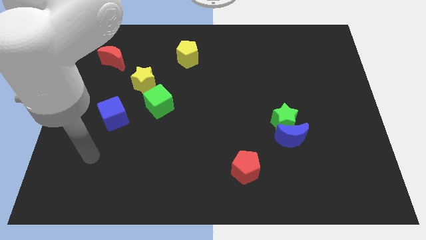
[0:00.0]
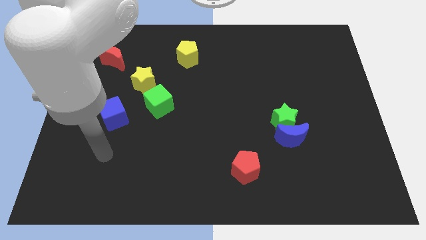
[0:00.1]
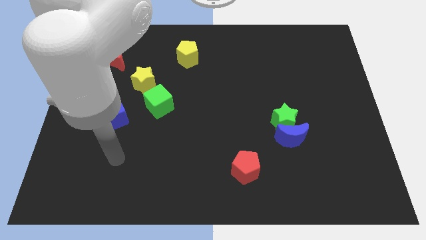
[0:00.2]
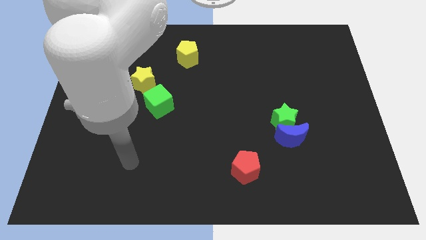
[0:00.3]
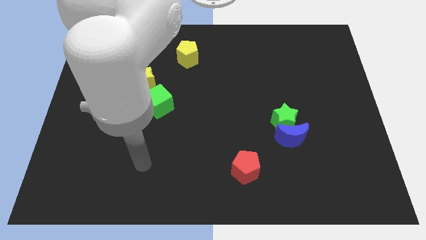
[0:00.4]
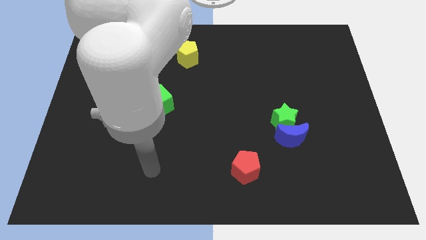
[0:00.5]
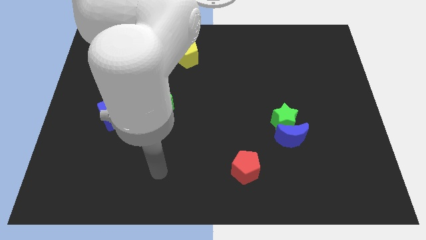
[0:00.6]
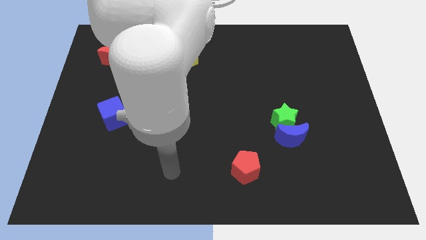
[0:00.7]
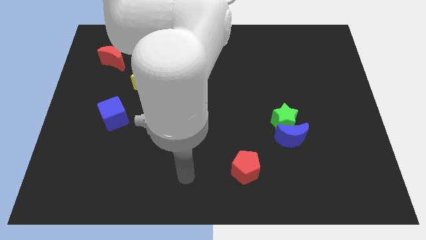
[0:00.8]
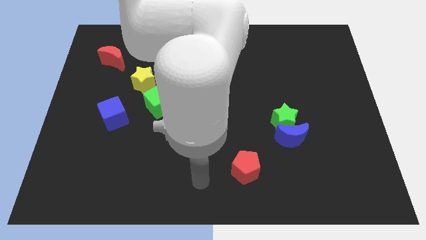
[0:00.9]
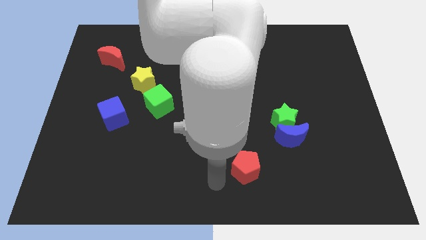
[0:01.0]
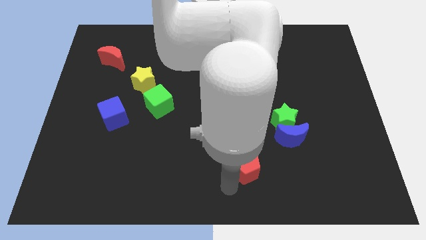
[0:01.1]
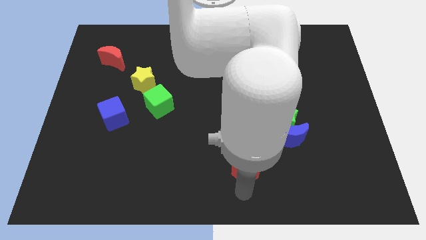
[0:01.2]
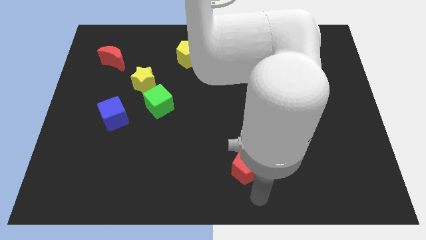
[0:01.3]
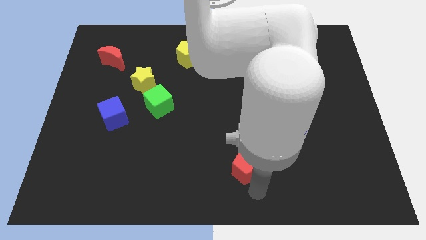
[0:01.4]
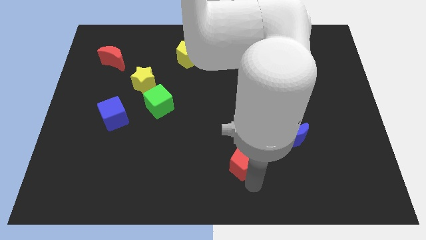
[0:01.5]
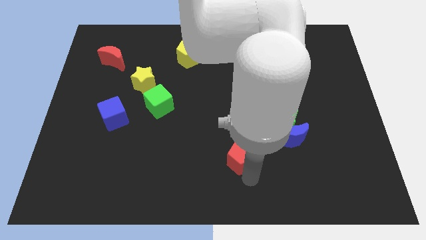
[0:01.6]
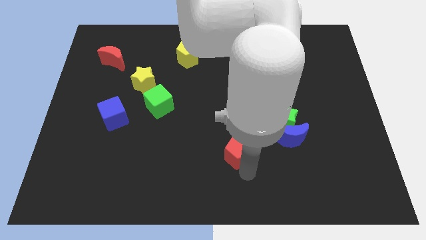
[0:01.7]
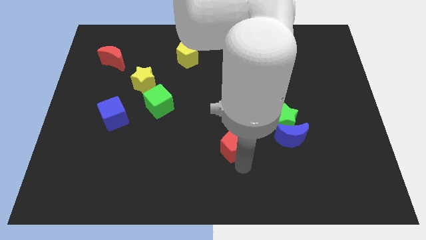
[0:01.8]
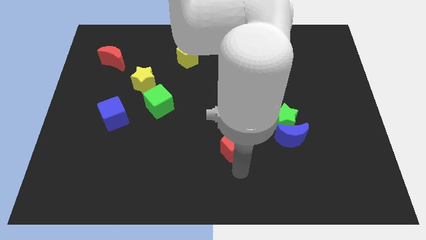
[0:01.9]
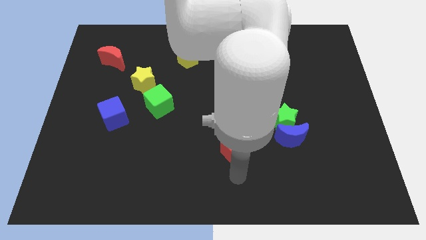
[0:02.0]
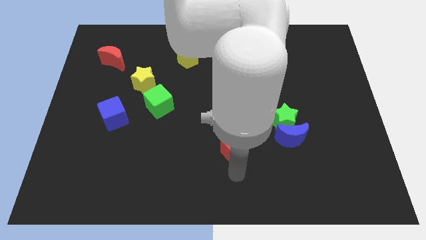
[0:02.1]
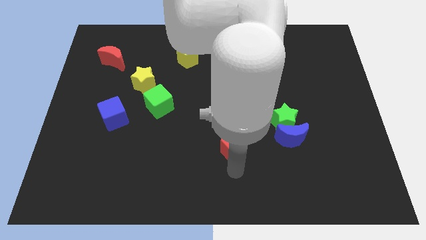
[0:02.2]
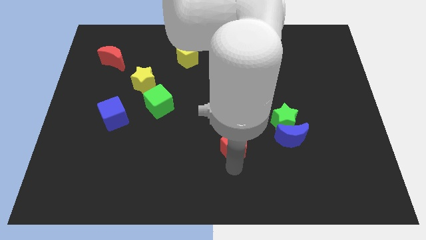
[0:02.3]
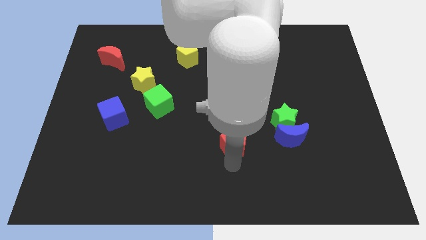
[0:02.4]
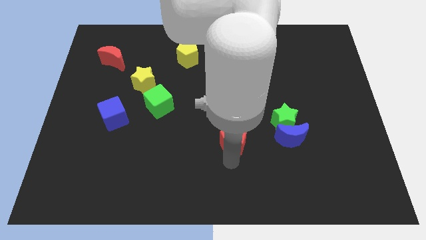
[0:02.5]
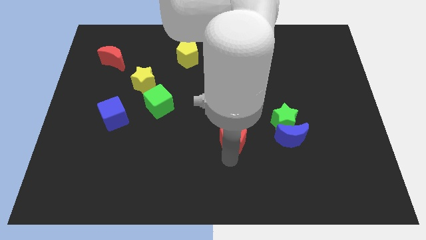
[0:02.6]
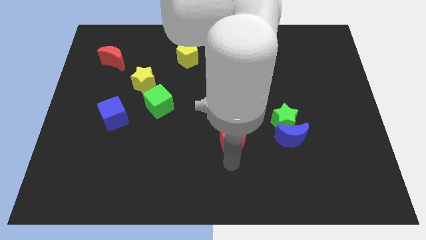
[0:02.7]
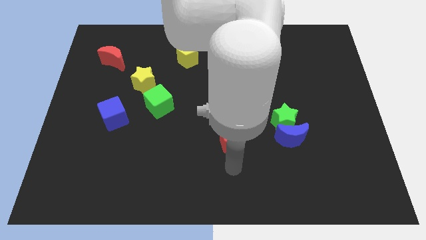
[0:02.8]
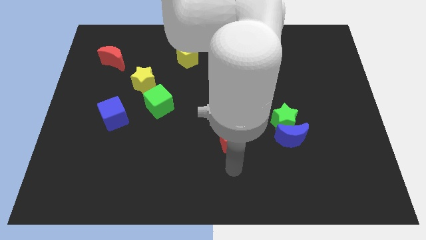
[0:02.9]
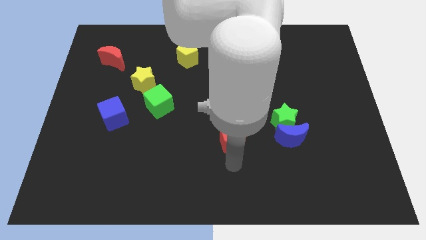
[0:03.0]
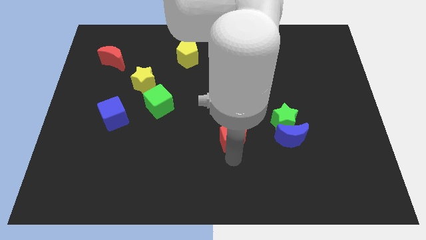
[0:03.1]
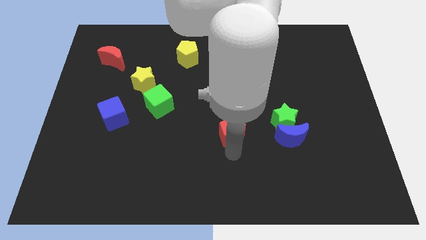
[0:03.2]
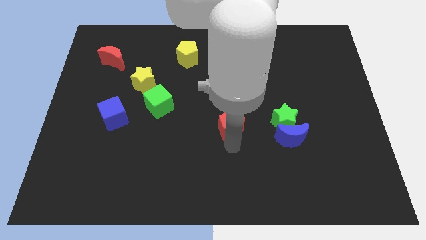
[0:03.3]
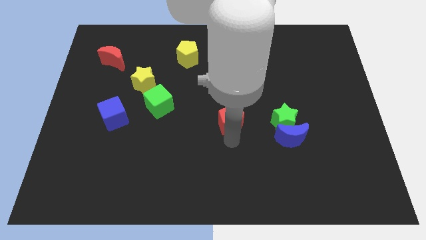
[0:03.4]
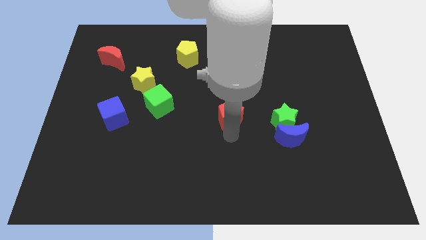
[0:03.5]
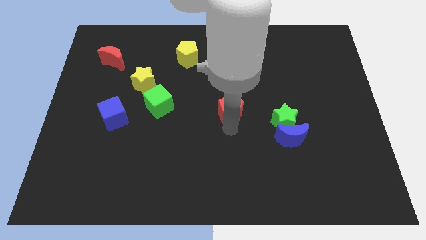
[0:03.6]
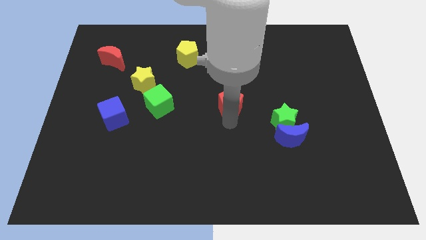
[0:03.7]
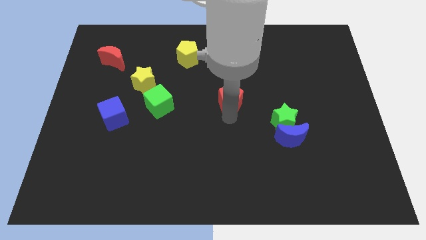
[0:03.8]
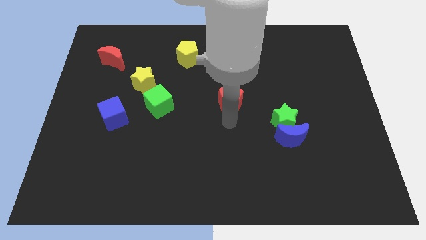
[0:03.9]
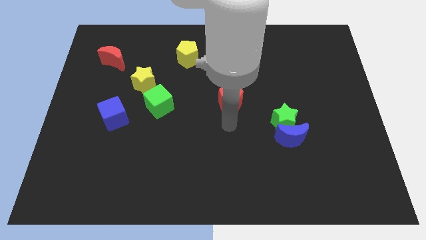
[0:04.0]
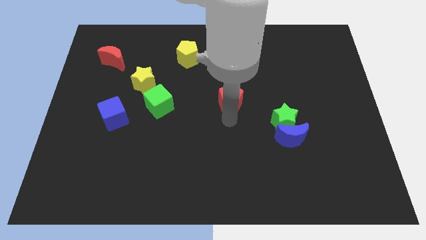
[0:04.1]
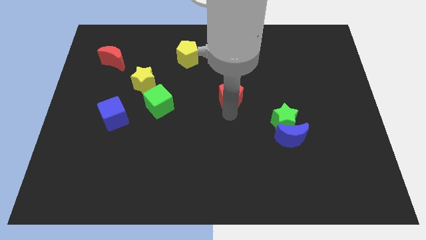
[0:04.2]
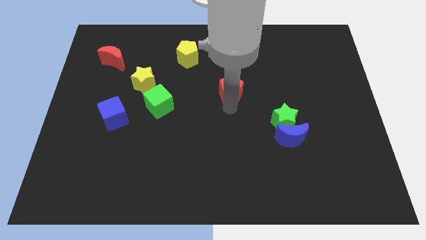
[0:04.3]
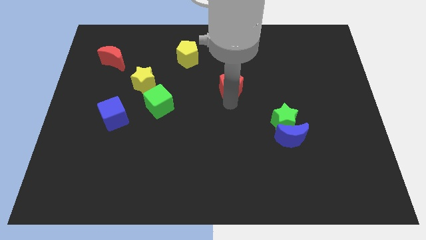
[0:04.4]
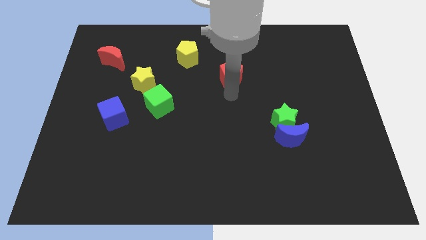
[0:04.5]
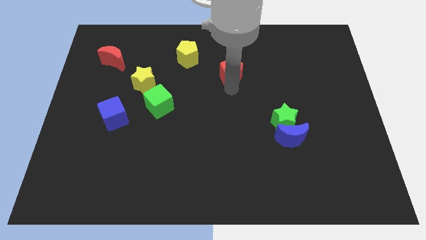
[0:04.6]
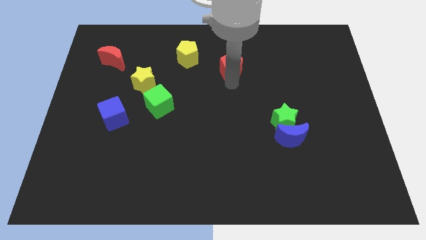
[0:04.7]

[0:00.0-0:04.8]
move the red pentagon just right of the yellow pentagon

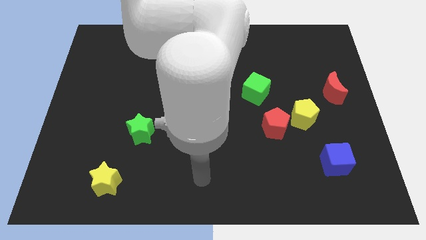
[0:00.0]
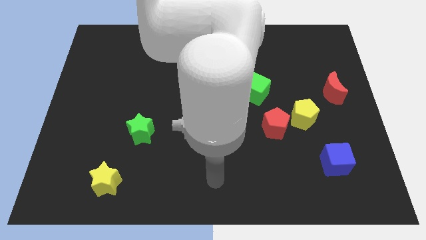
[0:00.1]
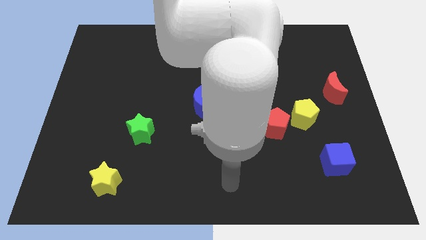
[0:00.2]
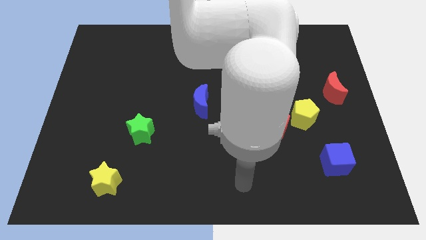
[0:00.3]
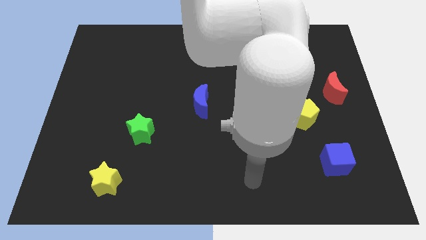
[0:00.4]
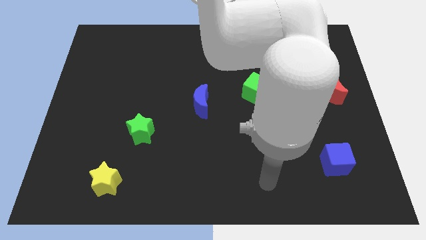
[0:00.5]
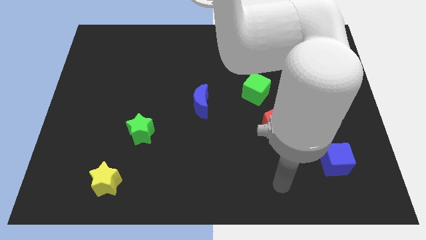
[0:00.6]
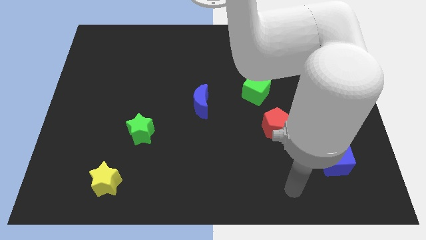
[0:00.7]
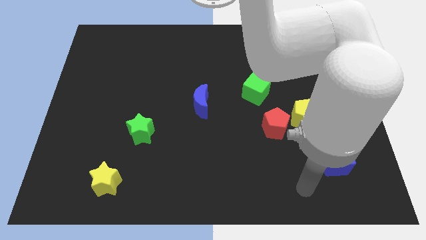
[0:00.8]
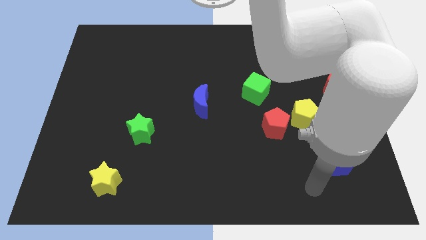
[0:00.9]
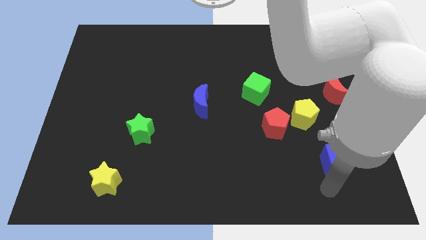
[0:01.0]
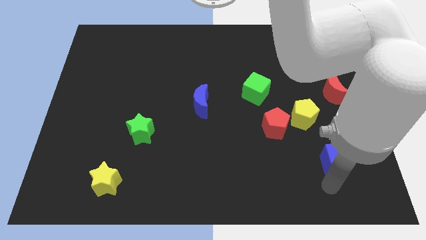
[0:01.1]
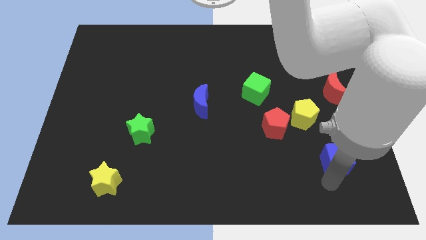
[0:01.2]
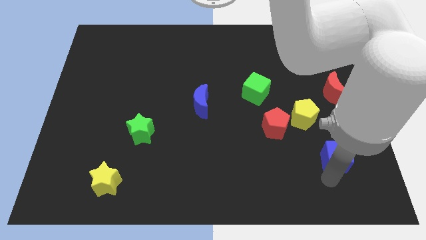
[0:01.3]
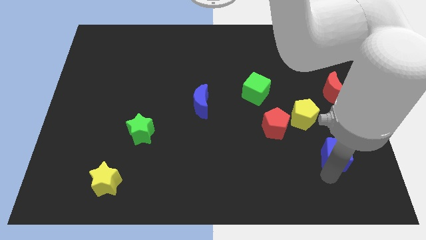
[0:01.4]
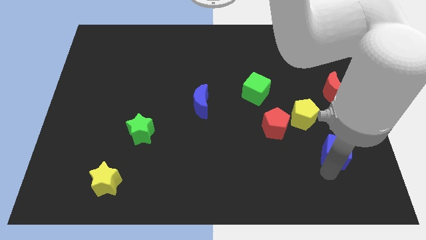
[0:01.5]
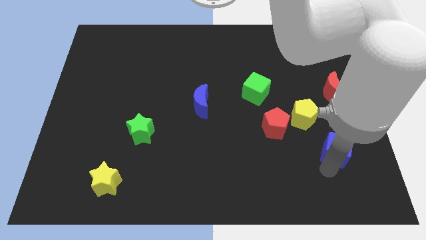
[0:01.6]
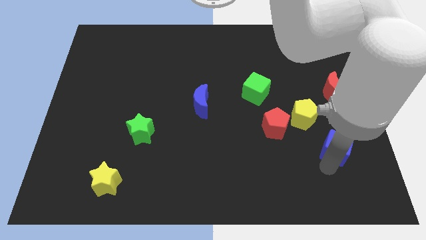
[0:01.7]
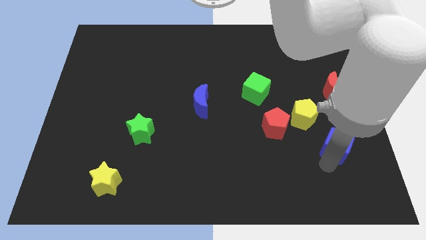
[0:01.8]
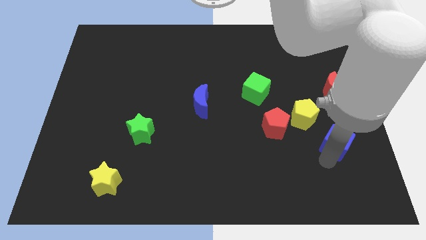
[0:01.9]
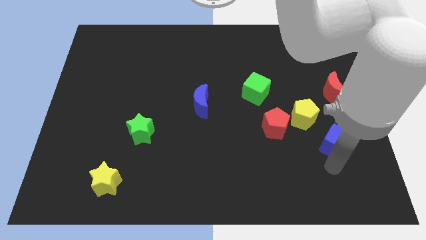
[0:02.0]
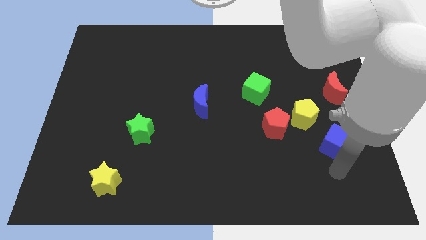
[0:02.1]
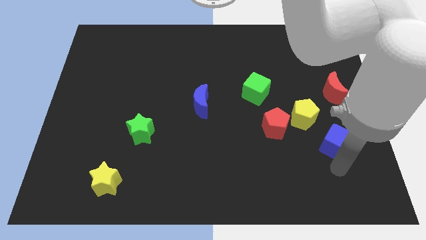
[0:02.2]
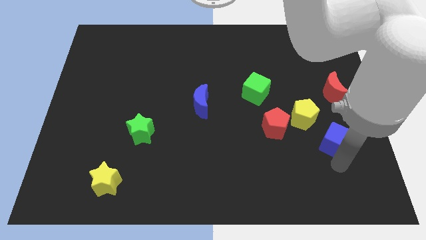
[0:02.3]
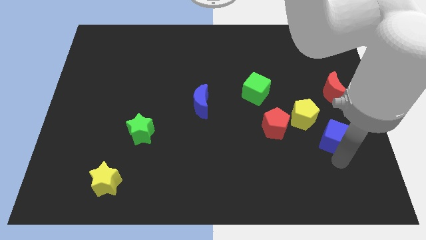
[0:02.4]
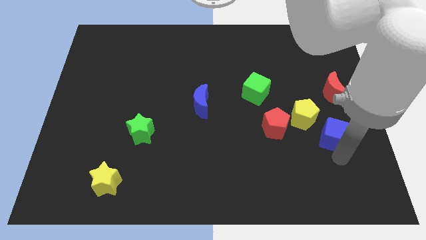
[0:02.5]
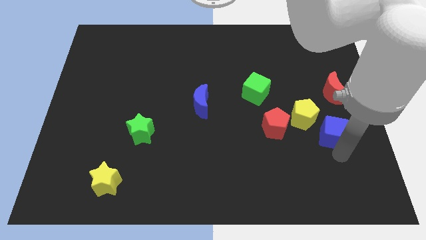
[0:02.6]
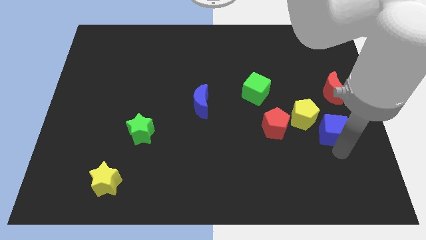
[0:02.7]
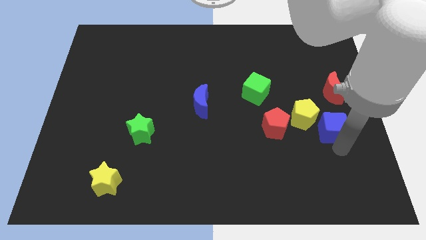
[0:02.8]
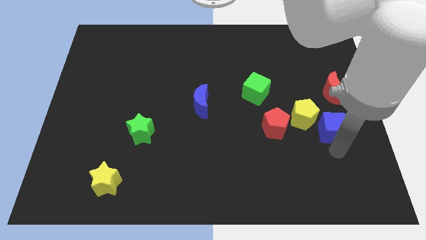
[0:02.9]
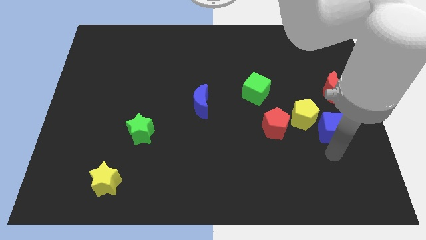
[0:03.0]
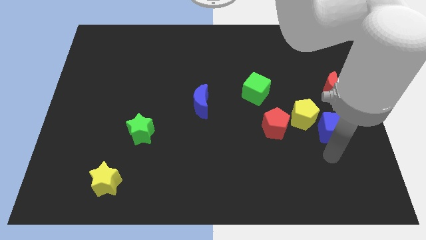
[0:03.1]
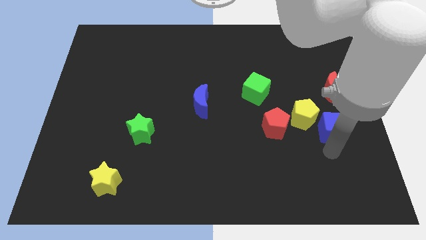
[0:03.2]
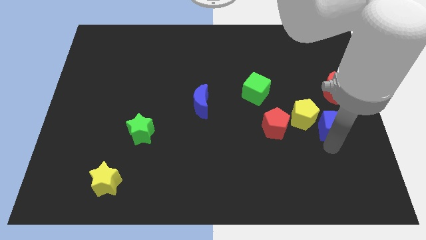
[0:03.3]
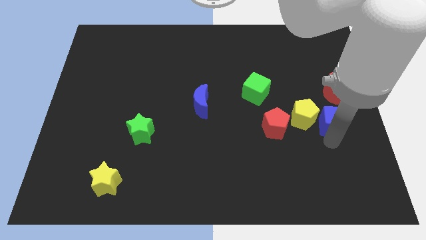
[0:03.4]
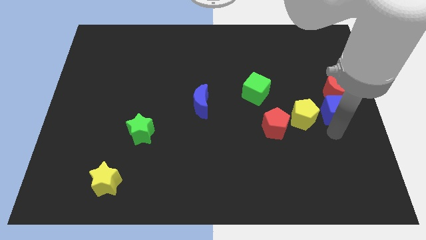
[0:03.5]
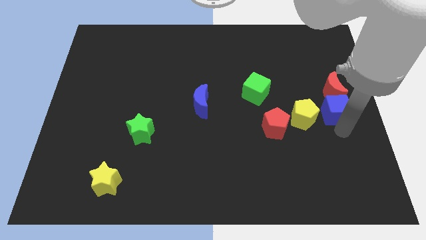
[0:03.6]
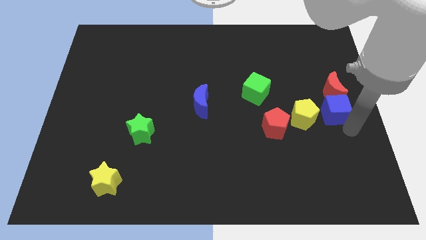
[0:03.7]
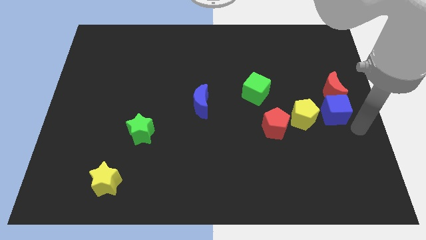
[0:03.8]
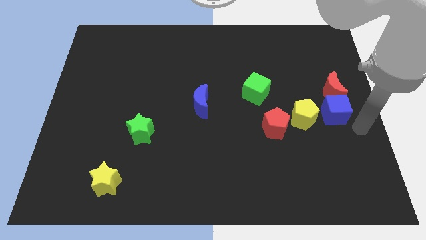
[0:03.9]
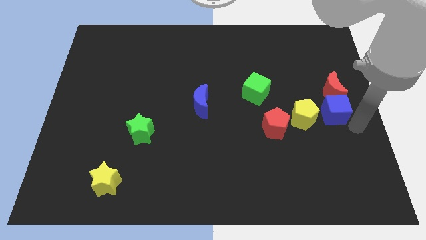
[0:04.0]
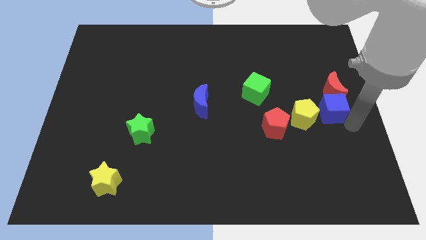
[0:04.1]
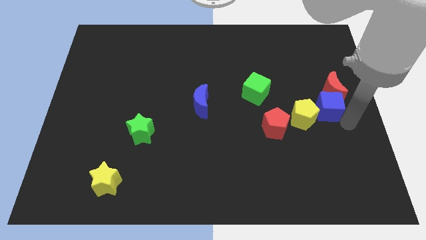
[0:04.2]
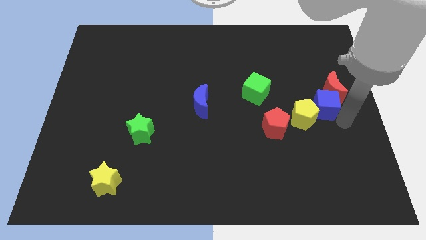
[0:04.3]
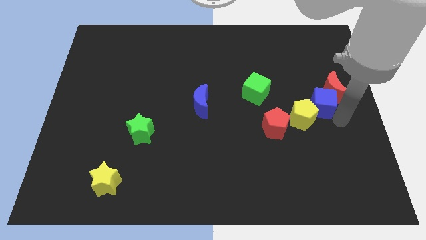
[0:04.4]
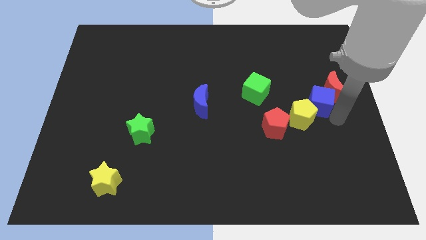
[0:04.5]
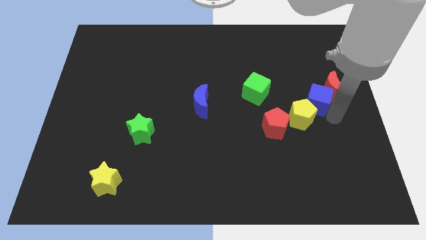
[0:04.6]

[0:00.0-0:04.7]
push the blue cube just right of the green cube
